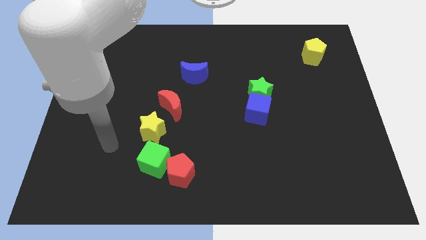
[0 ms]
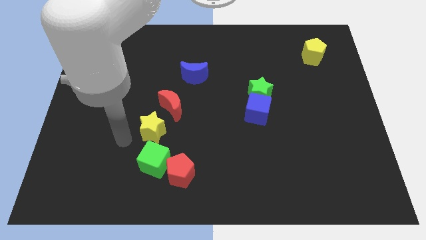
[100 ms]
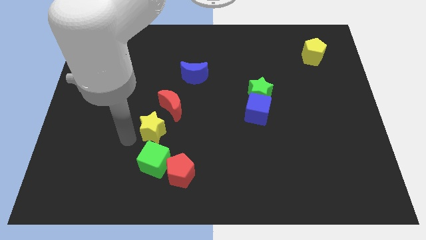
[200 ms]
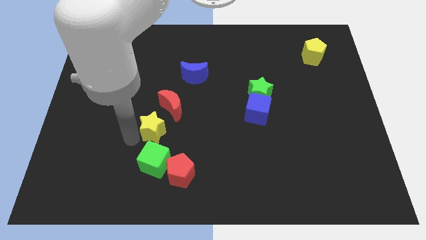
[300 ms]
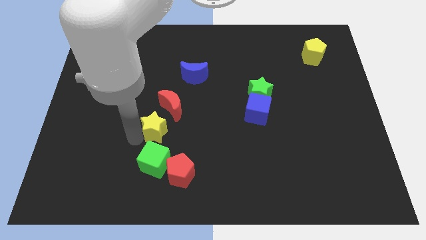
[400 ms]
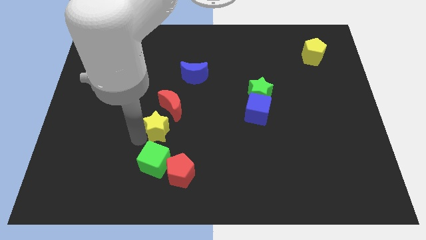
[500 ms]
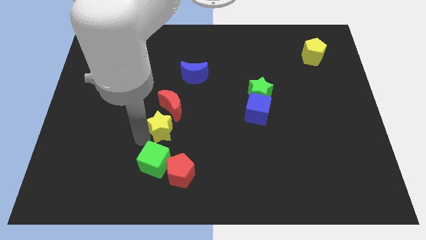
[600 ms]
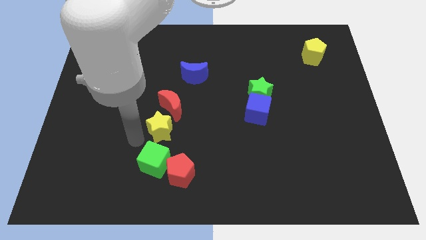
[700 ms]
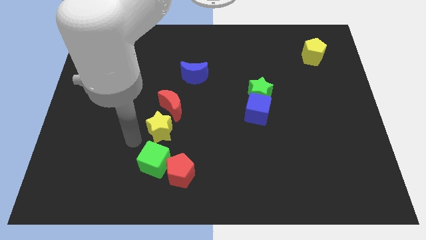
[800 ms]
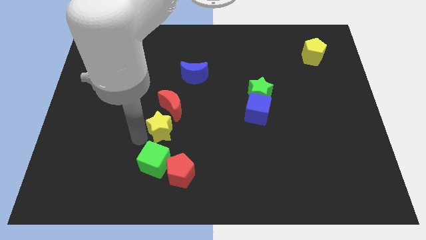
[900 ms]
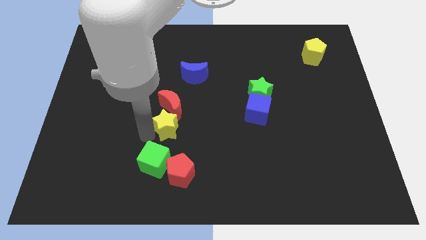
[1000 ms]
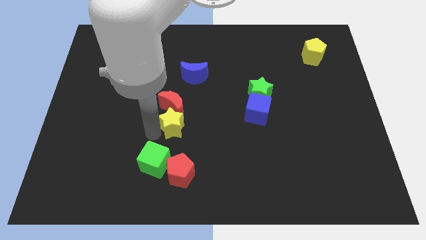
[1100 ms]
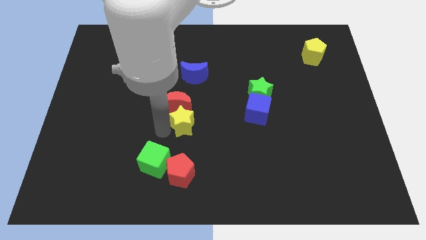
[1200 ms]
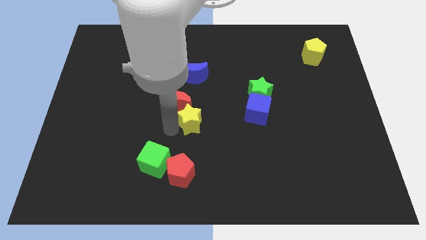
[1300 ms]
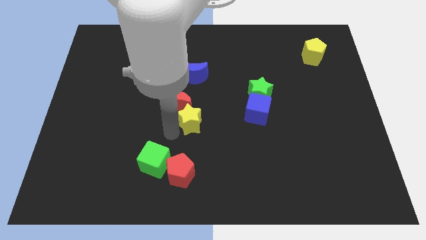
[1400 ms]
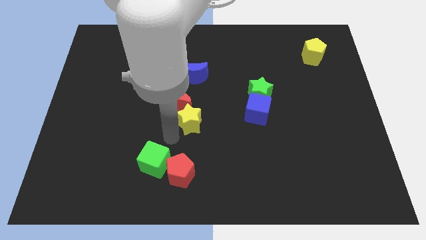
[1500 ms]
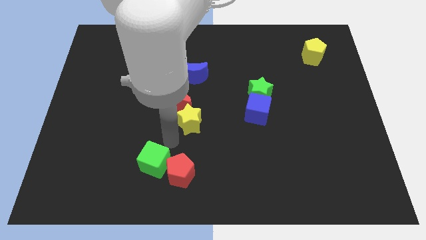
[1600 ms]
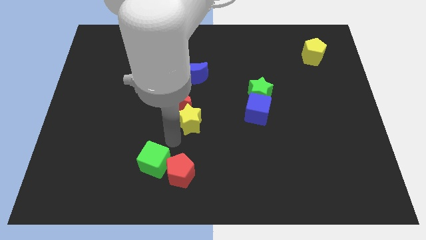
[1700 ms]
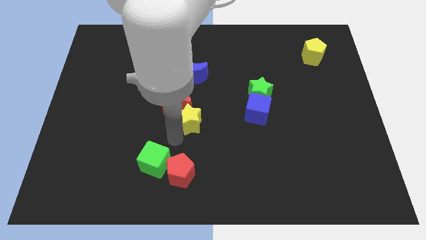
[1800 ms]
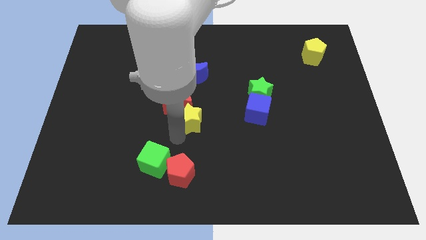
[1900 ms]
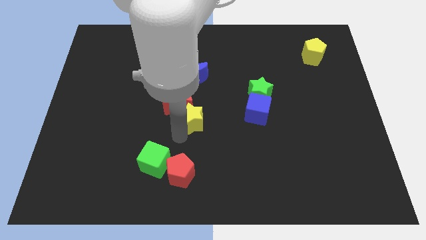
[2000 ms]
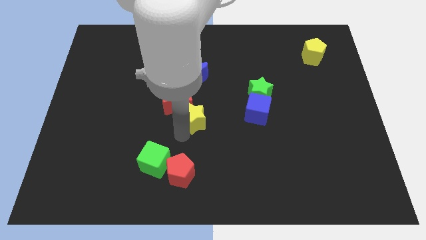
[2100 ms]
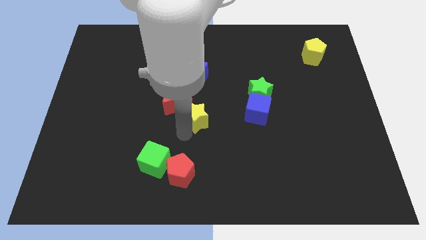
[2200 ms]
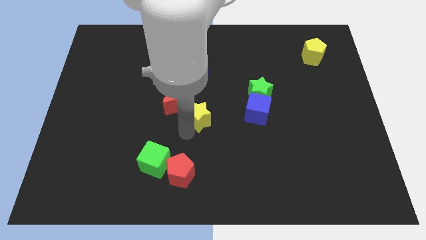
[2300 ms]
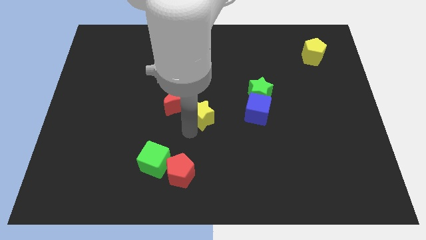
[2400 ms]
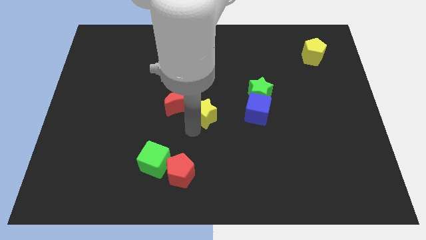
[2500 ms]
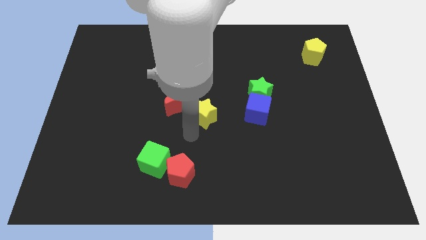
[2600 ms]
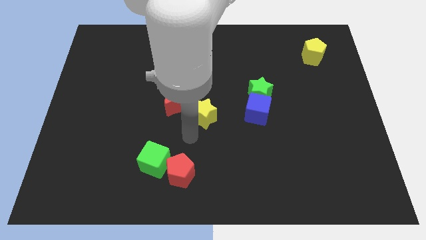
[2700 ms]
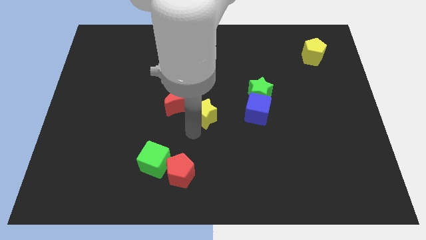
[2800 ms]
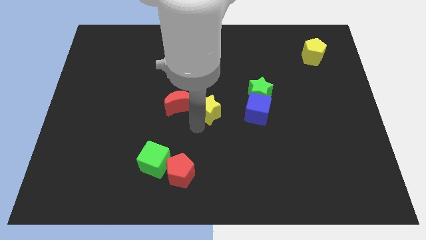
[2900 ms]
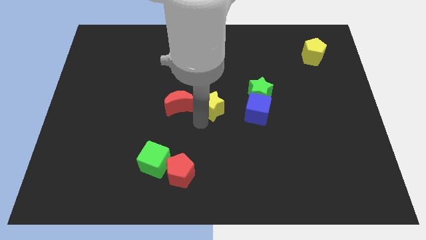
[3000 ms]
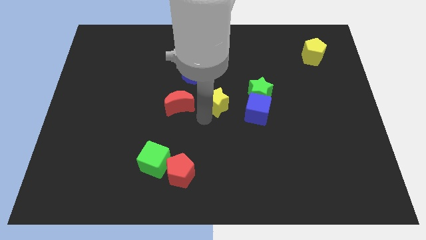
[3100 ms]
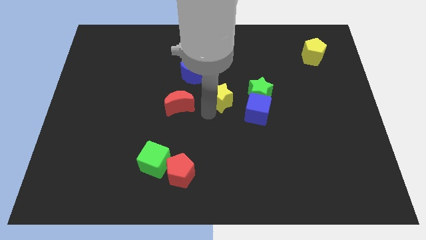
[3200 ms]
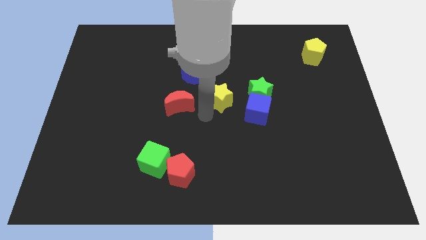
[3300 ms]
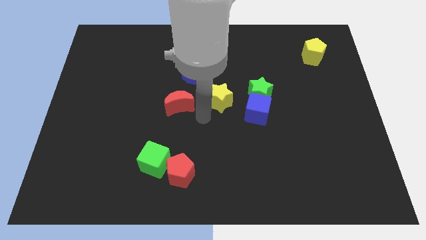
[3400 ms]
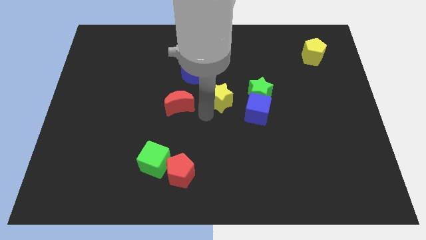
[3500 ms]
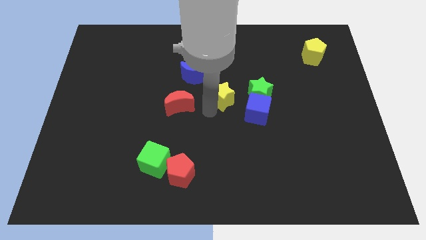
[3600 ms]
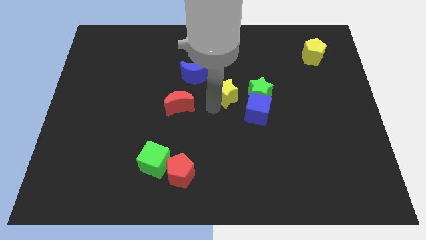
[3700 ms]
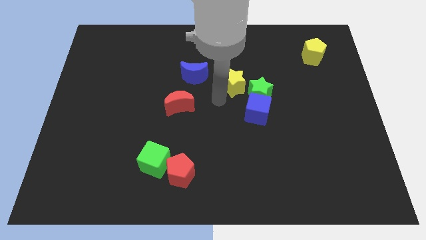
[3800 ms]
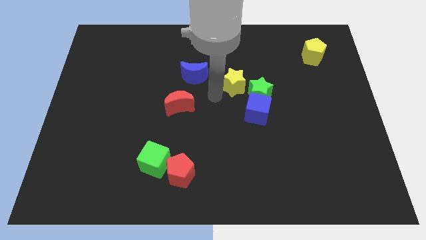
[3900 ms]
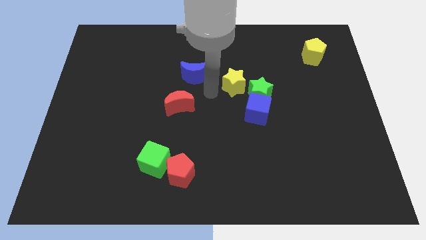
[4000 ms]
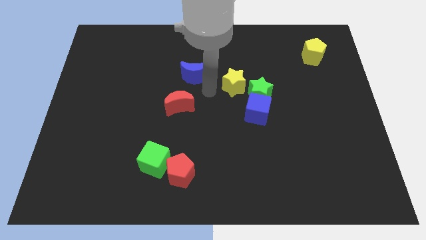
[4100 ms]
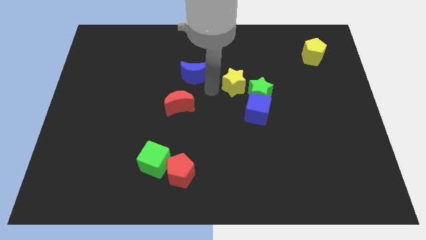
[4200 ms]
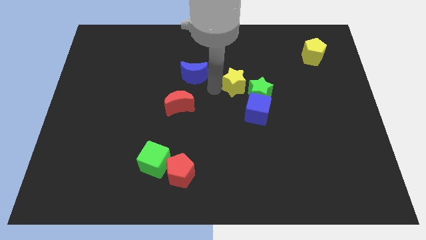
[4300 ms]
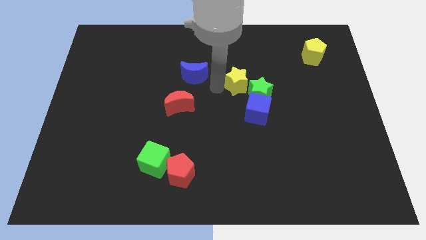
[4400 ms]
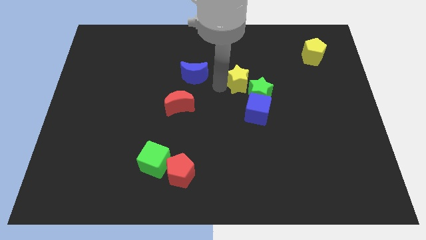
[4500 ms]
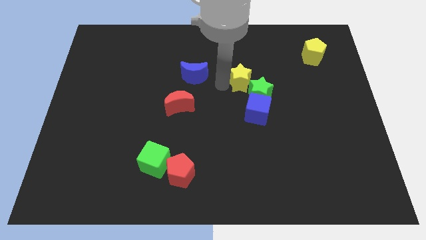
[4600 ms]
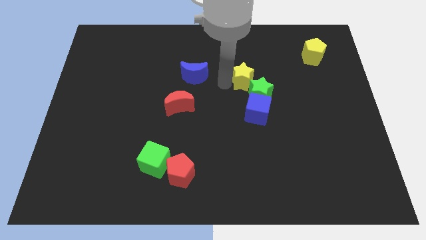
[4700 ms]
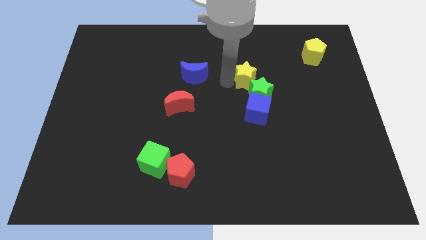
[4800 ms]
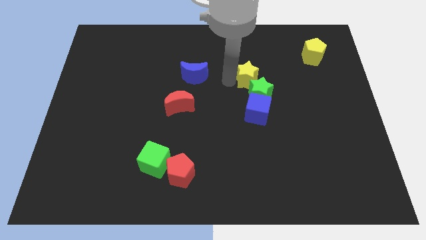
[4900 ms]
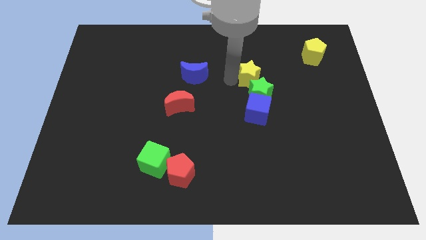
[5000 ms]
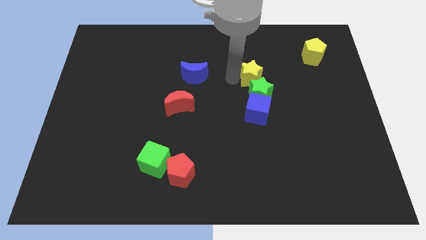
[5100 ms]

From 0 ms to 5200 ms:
slide the yellow star diagonally up and to the right of the green star

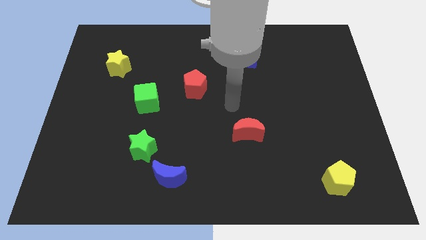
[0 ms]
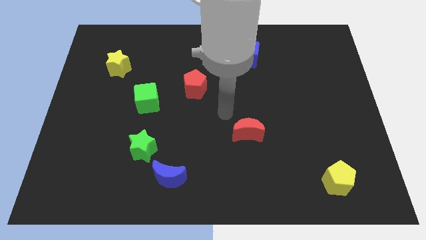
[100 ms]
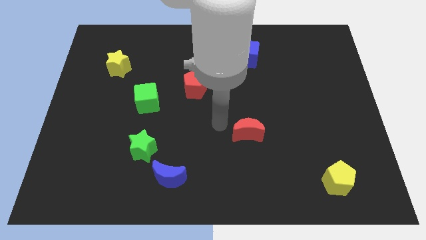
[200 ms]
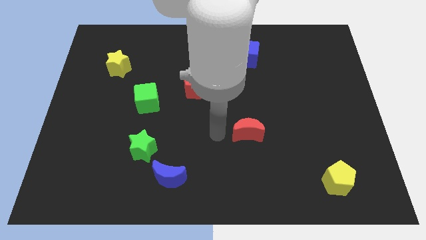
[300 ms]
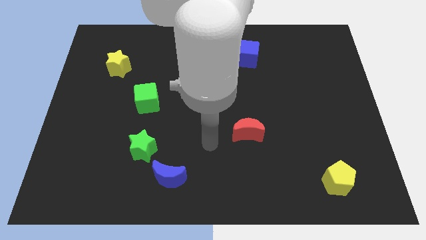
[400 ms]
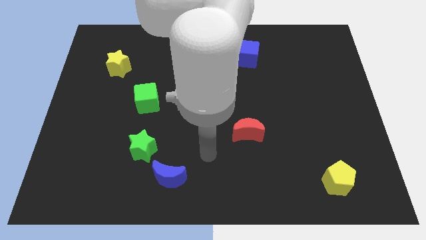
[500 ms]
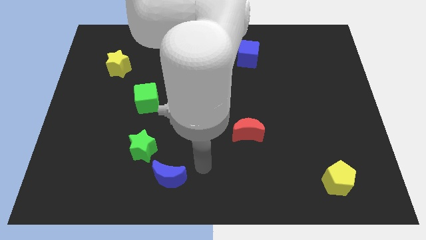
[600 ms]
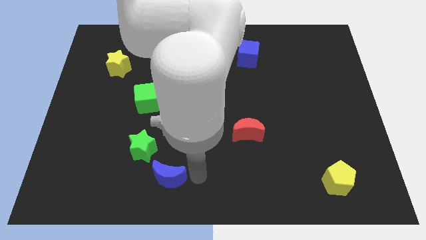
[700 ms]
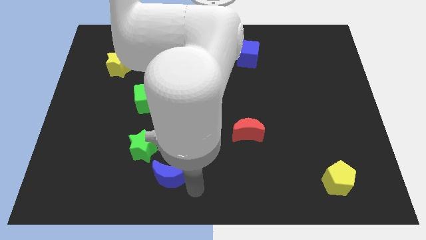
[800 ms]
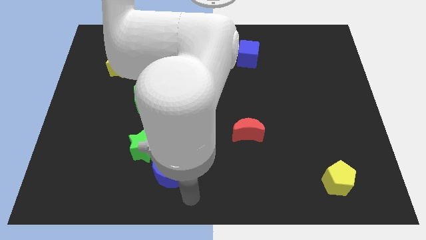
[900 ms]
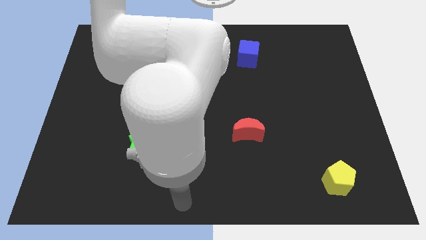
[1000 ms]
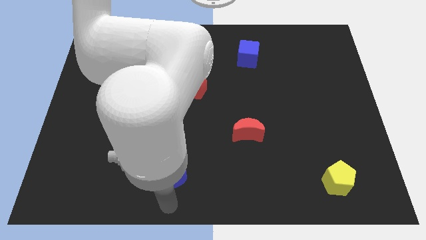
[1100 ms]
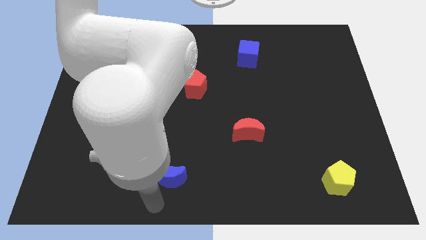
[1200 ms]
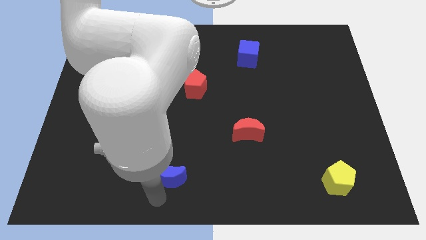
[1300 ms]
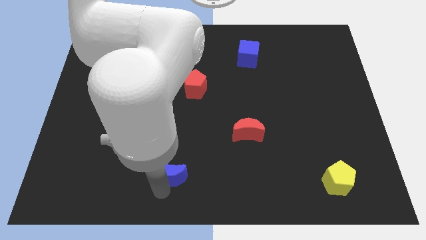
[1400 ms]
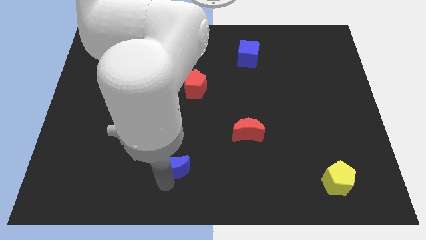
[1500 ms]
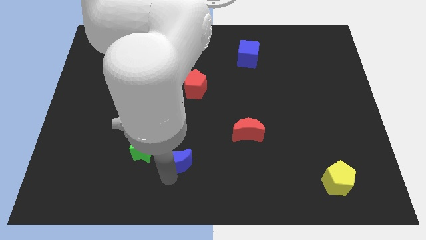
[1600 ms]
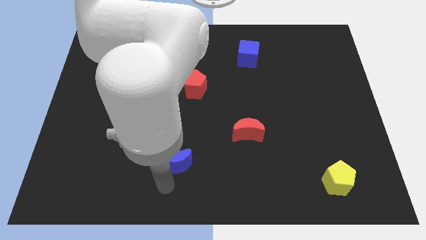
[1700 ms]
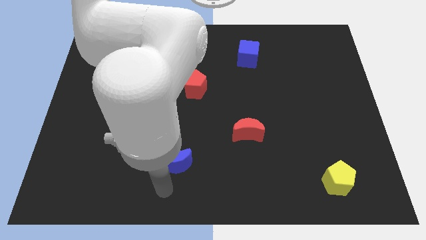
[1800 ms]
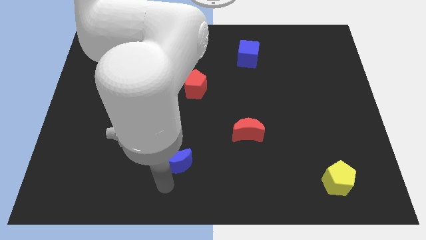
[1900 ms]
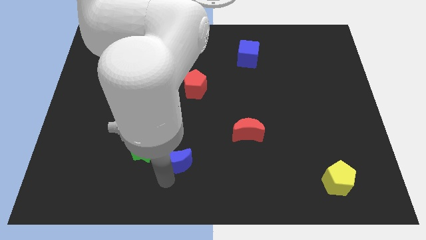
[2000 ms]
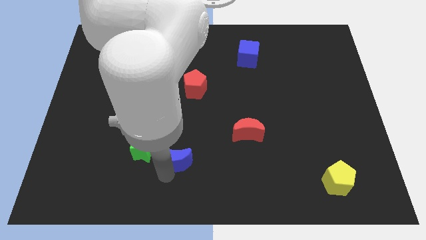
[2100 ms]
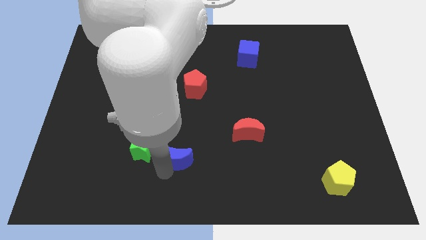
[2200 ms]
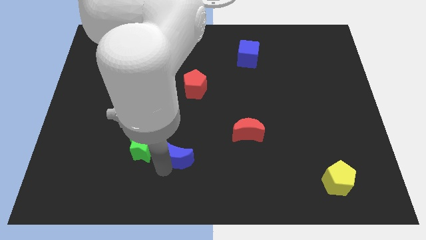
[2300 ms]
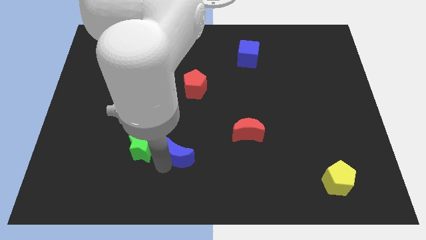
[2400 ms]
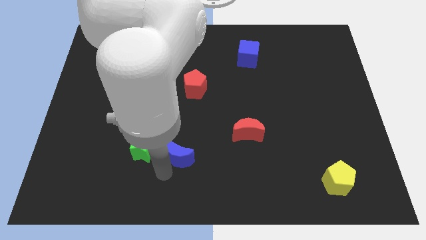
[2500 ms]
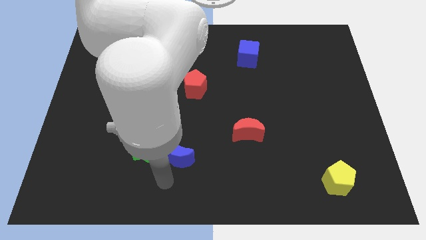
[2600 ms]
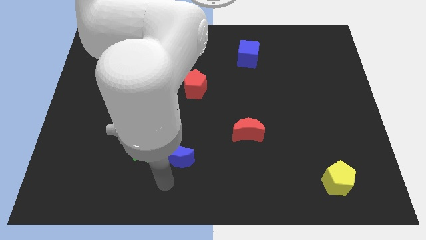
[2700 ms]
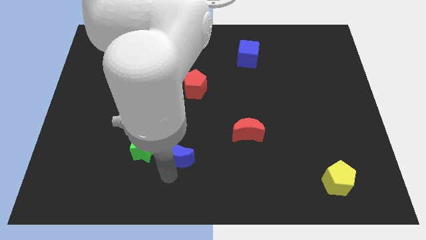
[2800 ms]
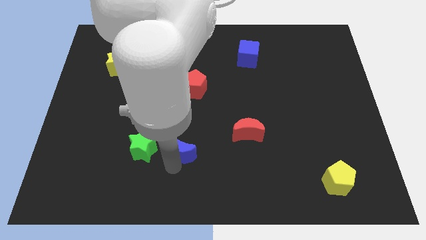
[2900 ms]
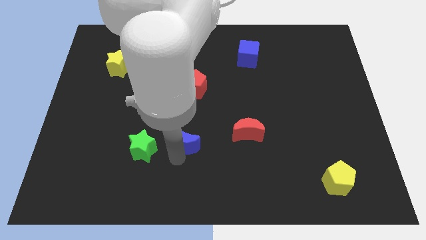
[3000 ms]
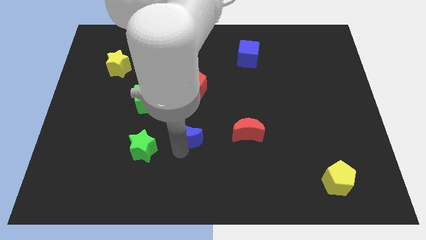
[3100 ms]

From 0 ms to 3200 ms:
move the blue moon to the bottom side of the red pentagon
